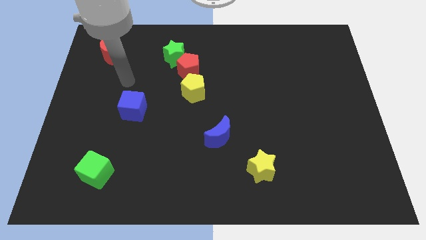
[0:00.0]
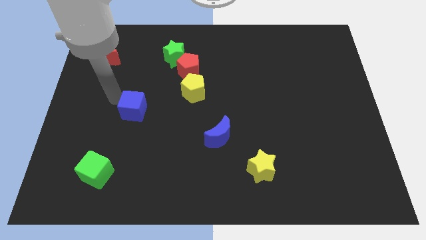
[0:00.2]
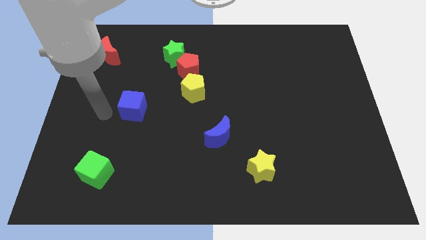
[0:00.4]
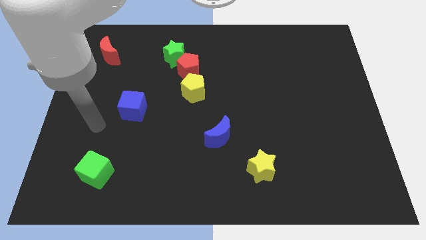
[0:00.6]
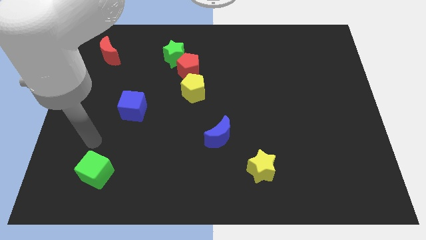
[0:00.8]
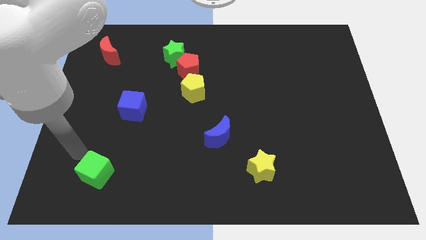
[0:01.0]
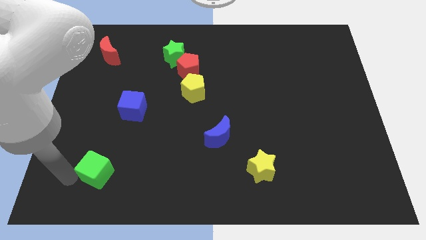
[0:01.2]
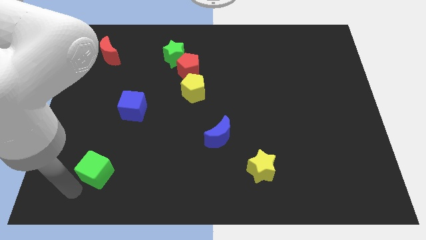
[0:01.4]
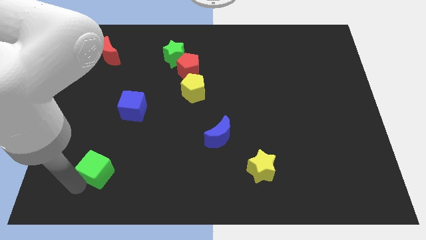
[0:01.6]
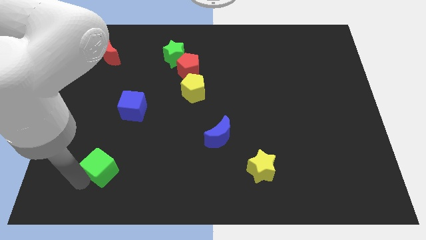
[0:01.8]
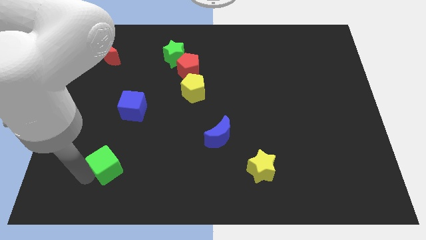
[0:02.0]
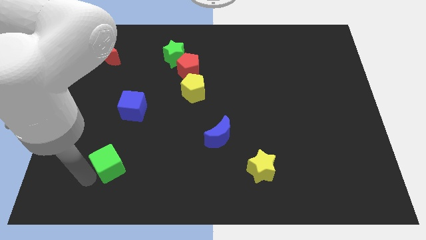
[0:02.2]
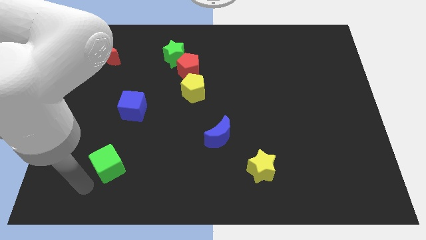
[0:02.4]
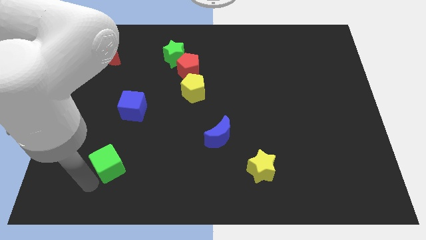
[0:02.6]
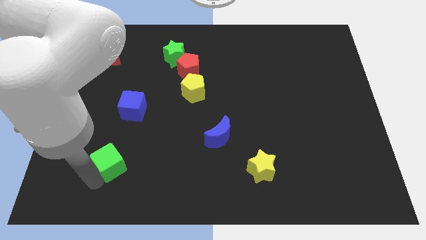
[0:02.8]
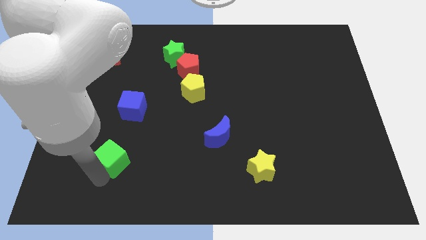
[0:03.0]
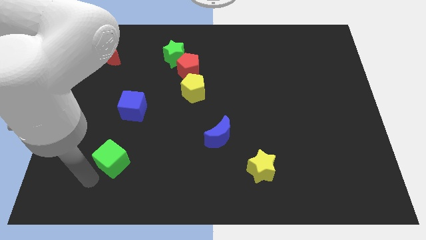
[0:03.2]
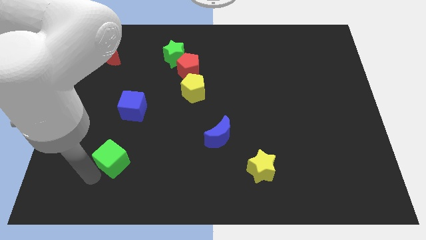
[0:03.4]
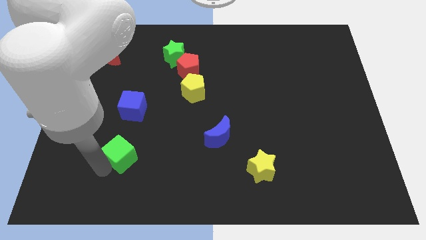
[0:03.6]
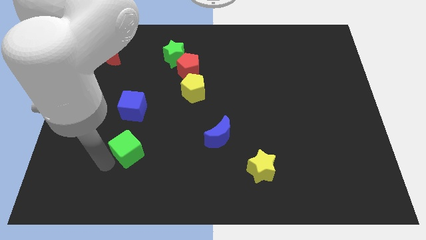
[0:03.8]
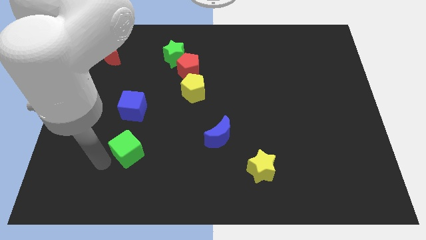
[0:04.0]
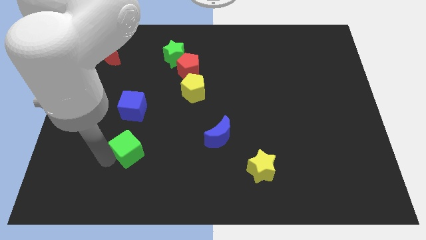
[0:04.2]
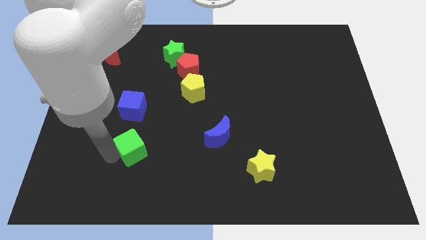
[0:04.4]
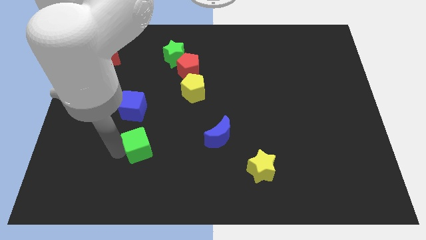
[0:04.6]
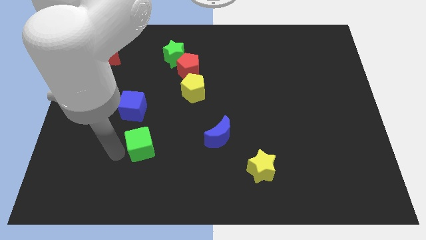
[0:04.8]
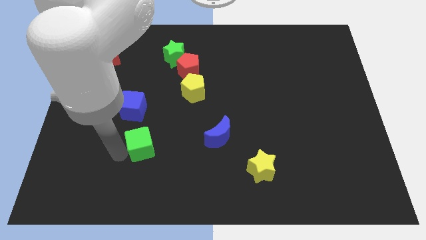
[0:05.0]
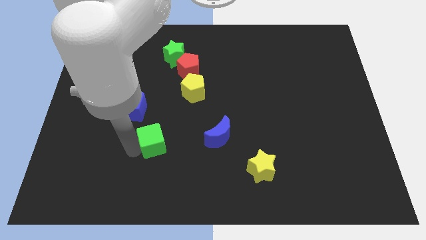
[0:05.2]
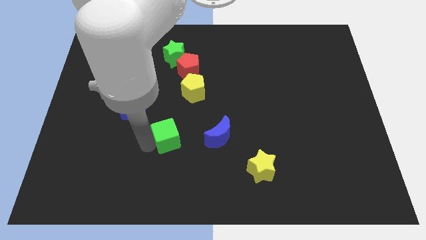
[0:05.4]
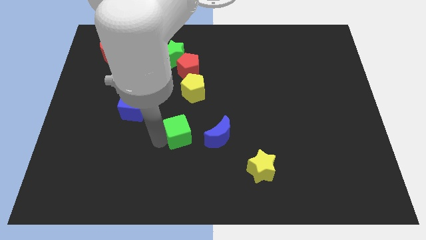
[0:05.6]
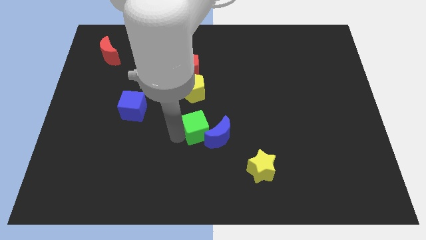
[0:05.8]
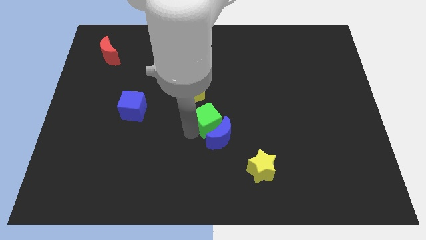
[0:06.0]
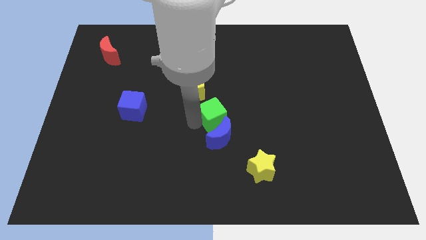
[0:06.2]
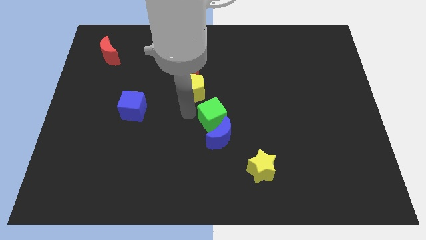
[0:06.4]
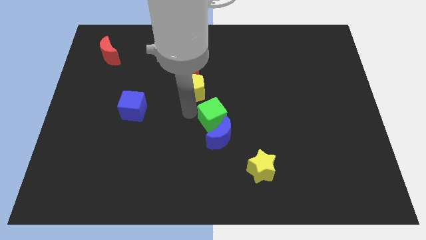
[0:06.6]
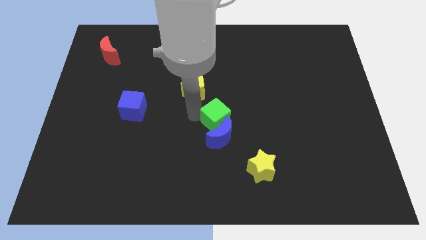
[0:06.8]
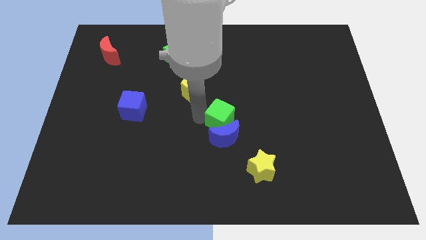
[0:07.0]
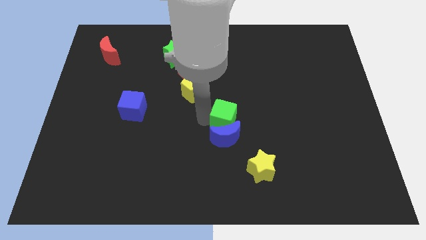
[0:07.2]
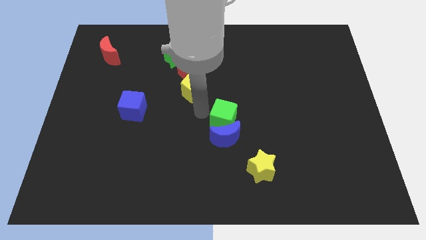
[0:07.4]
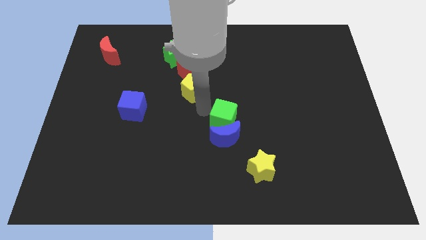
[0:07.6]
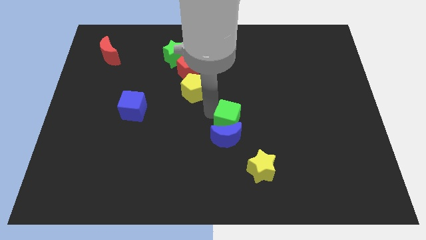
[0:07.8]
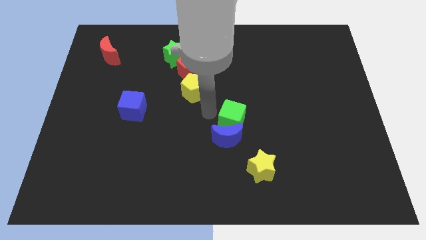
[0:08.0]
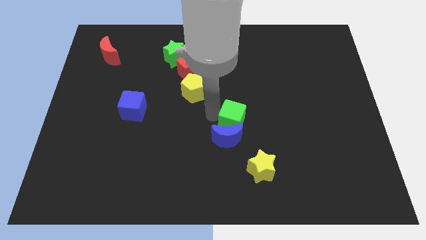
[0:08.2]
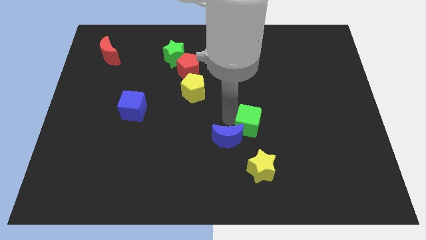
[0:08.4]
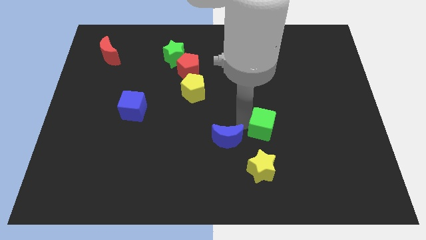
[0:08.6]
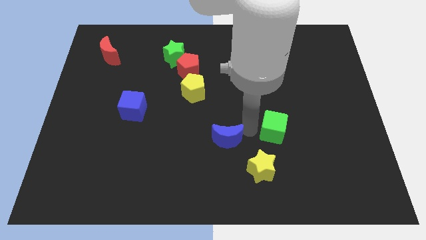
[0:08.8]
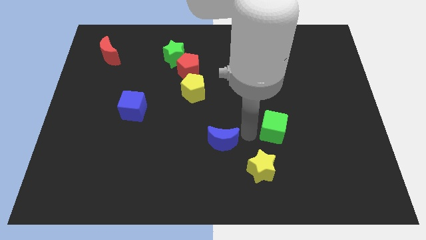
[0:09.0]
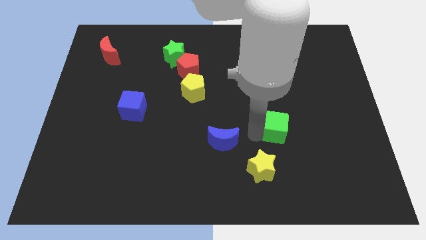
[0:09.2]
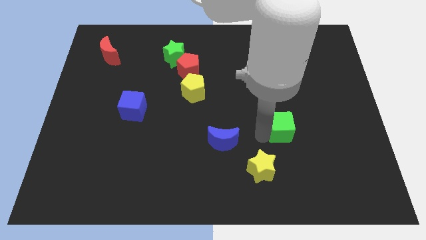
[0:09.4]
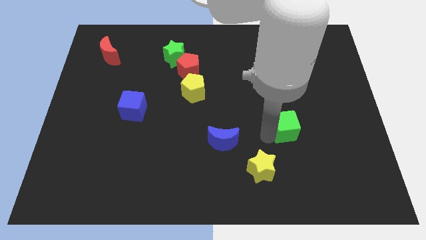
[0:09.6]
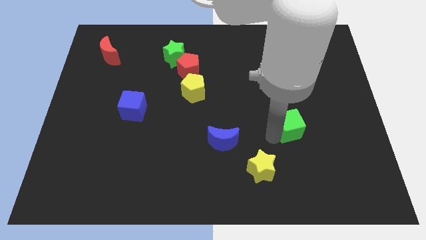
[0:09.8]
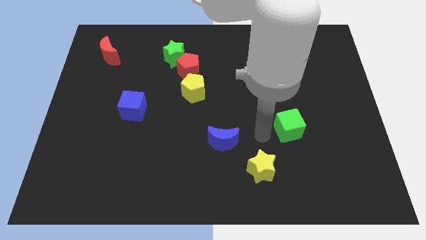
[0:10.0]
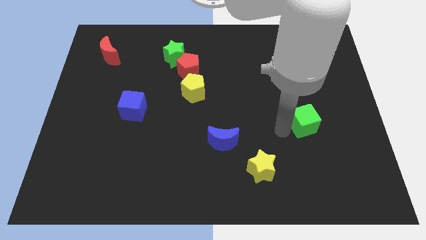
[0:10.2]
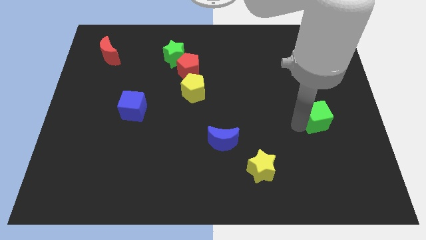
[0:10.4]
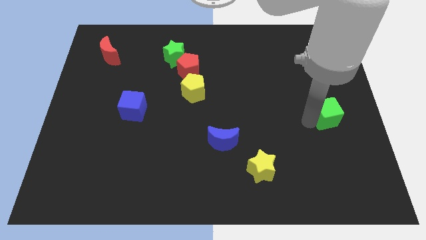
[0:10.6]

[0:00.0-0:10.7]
put the green cube to the center right

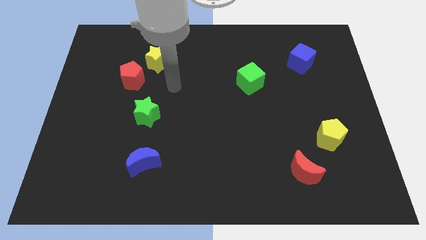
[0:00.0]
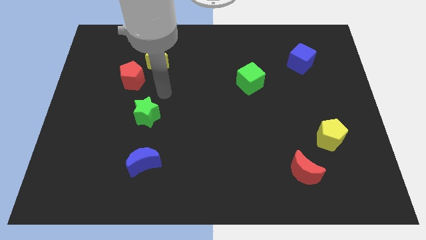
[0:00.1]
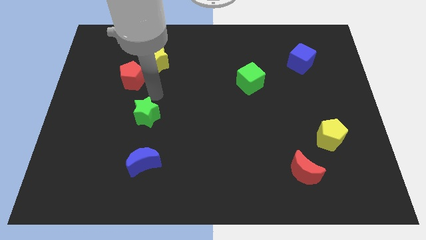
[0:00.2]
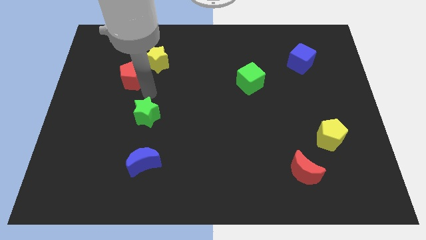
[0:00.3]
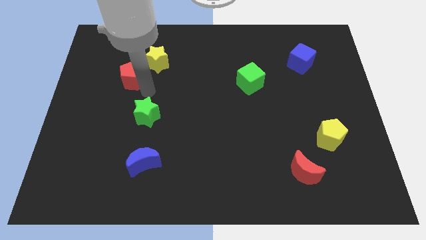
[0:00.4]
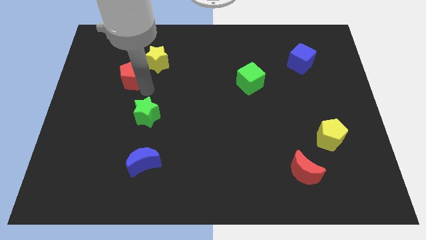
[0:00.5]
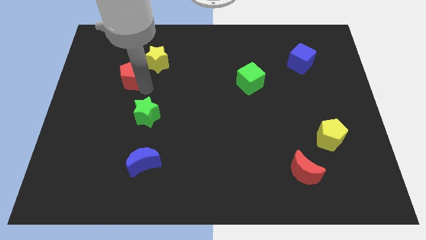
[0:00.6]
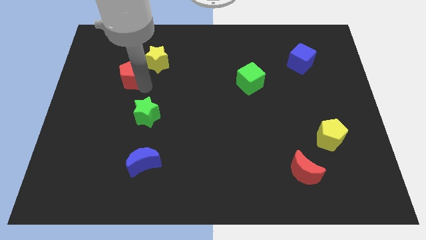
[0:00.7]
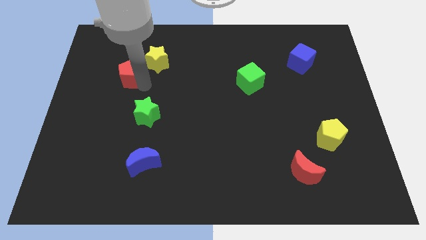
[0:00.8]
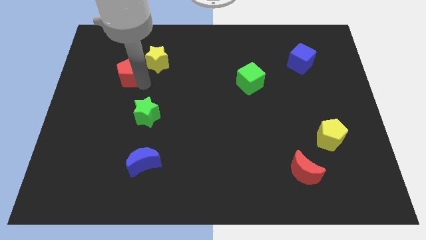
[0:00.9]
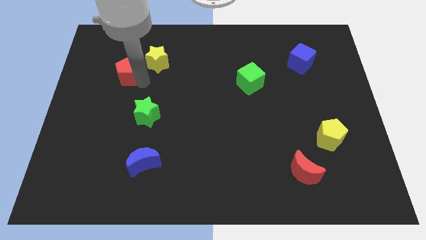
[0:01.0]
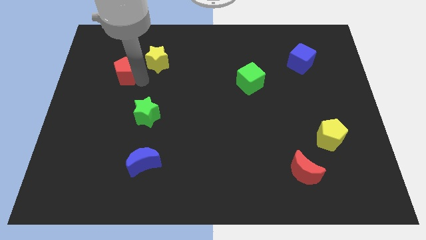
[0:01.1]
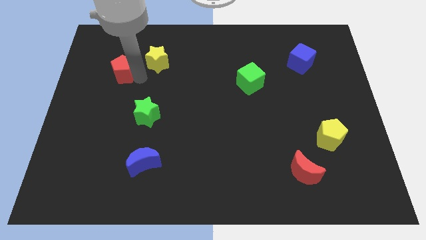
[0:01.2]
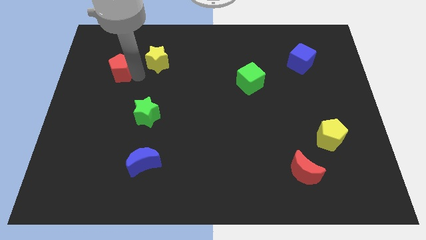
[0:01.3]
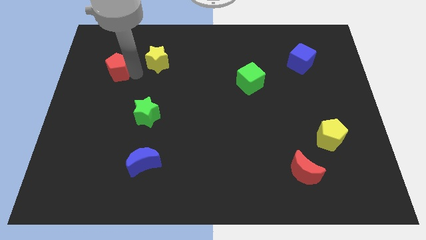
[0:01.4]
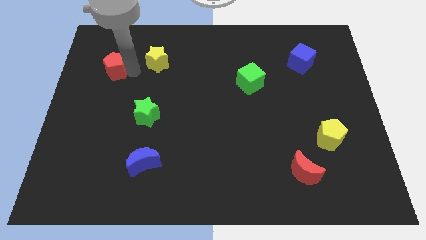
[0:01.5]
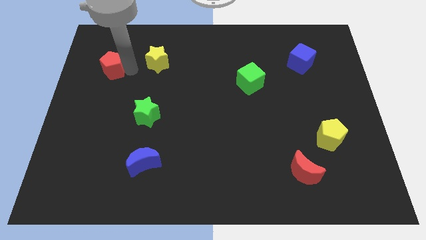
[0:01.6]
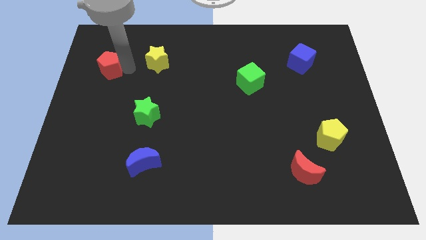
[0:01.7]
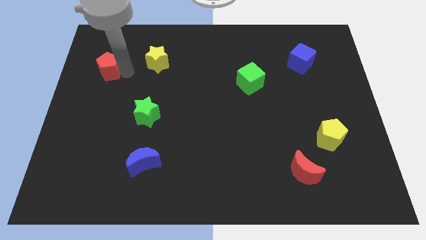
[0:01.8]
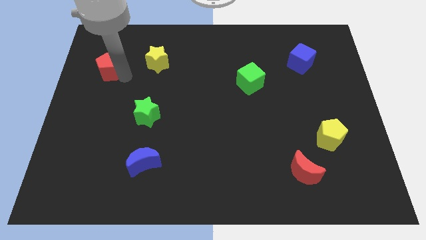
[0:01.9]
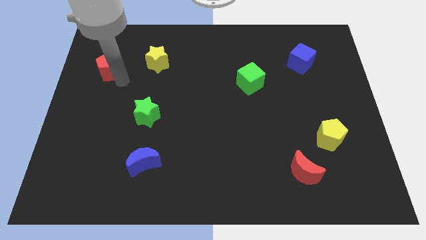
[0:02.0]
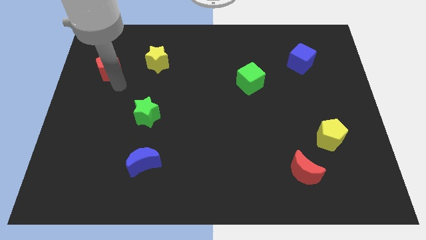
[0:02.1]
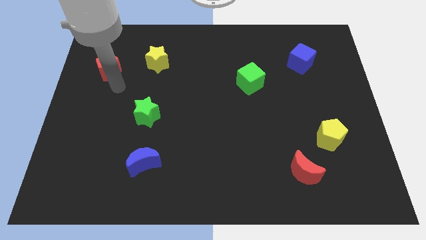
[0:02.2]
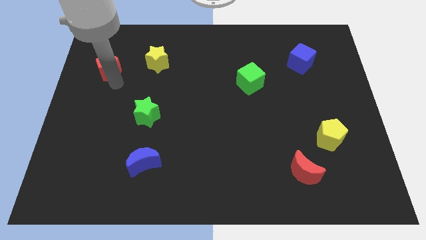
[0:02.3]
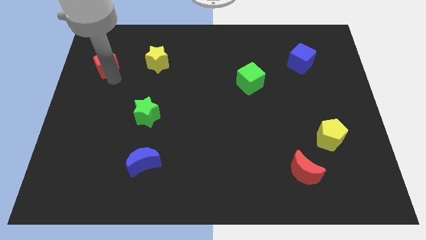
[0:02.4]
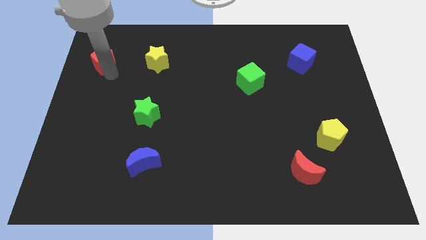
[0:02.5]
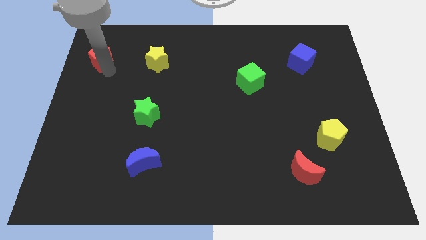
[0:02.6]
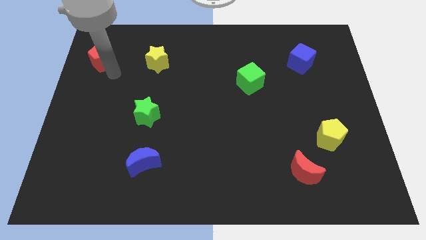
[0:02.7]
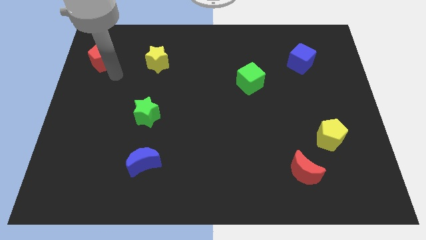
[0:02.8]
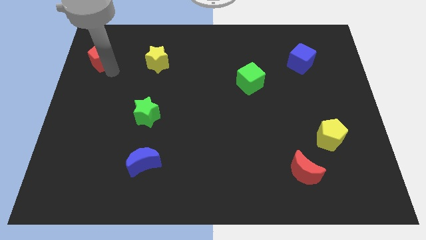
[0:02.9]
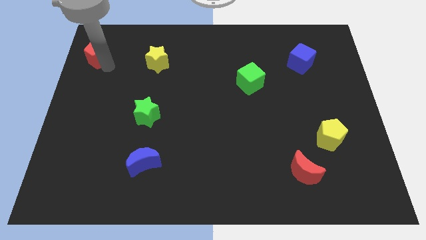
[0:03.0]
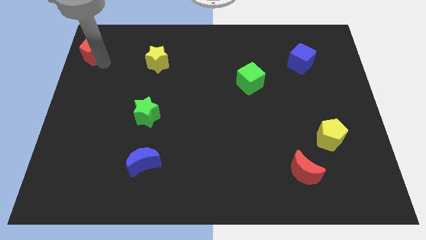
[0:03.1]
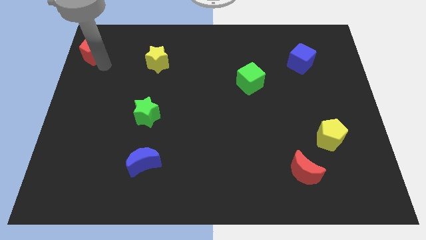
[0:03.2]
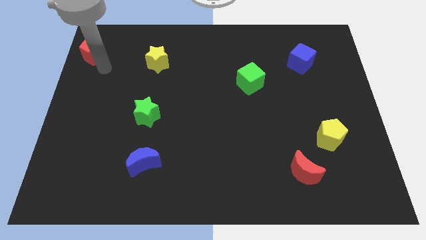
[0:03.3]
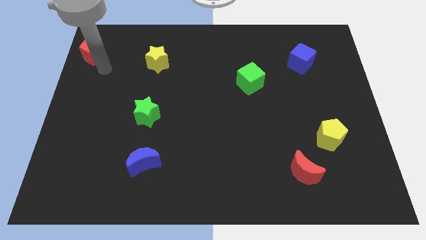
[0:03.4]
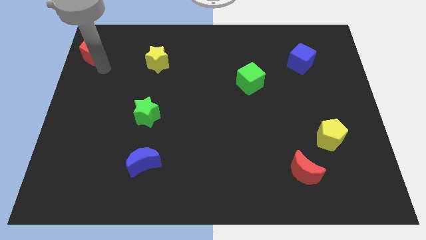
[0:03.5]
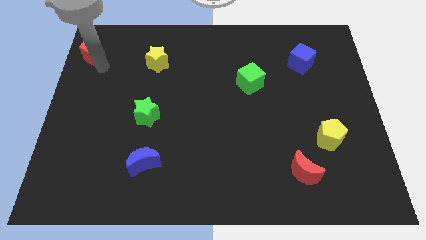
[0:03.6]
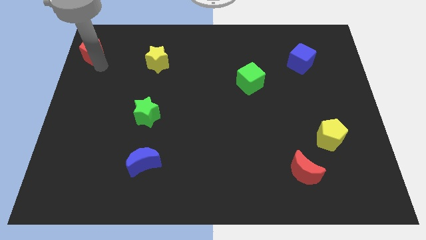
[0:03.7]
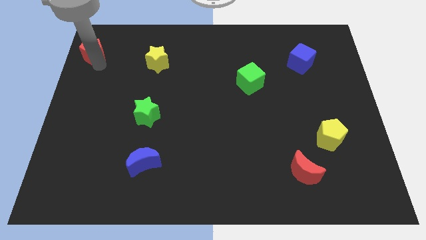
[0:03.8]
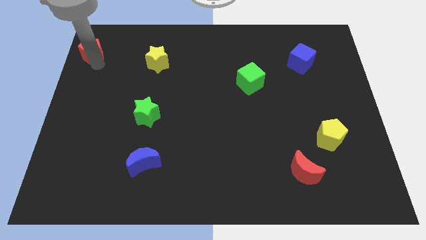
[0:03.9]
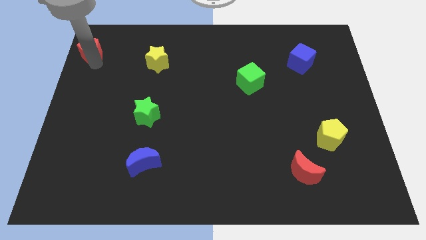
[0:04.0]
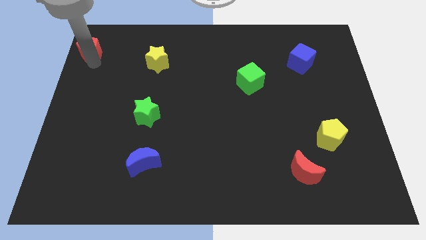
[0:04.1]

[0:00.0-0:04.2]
slide the red pentagon to the top left of the board
